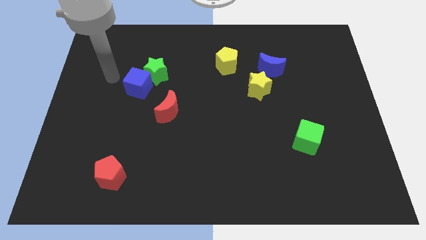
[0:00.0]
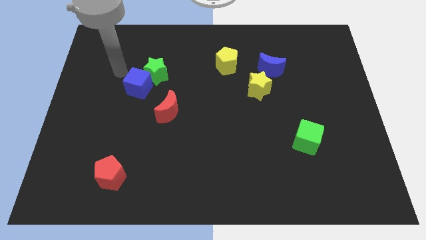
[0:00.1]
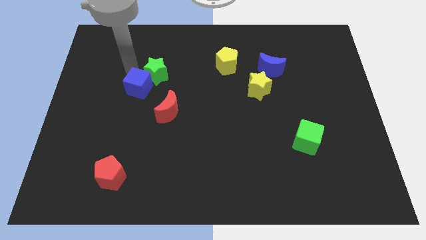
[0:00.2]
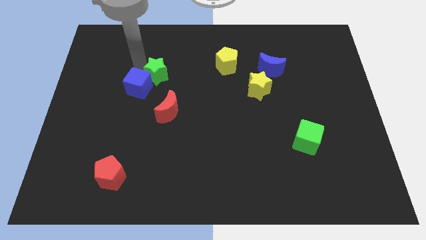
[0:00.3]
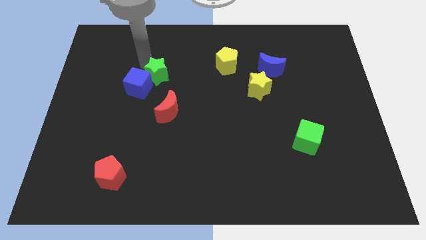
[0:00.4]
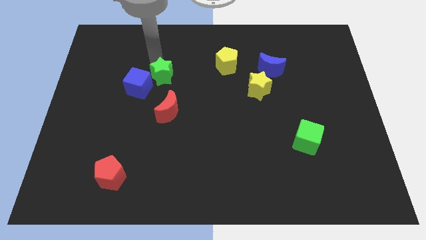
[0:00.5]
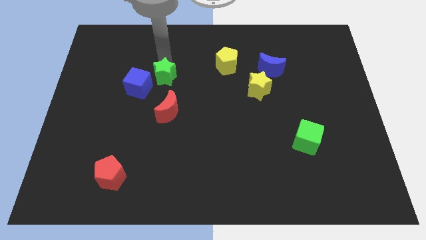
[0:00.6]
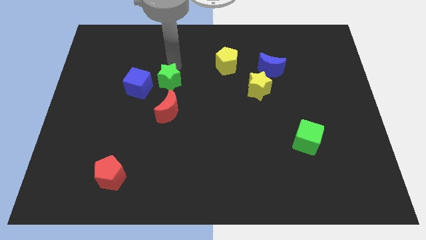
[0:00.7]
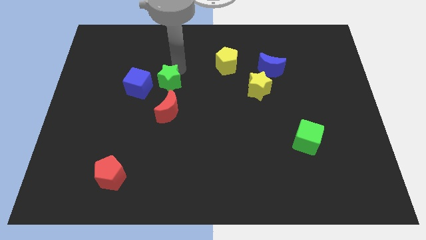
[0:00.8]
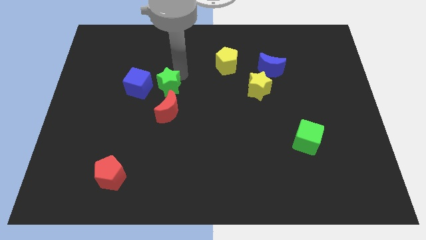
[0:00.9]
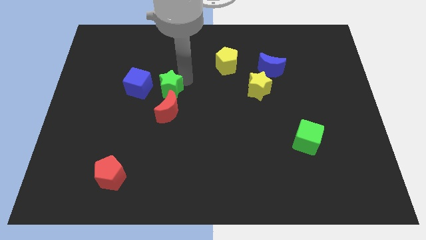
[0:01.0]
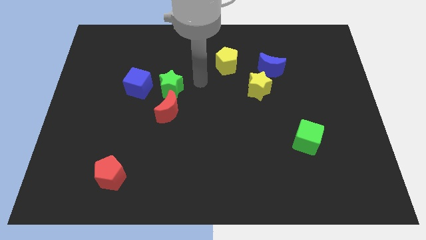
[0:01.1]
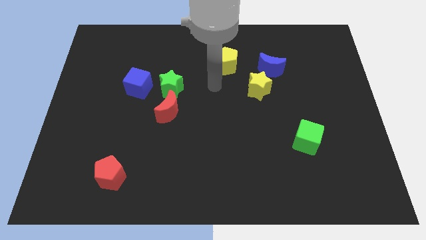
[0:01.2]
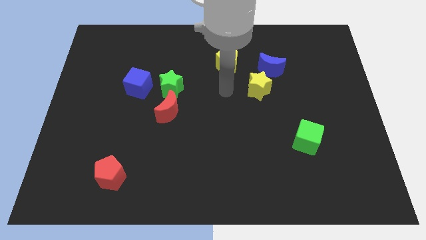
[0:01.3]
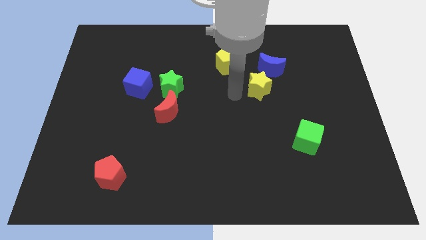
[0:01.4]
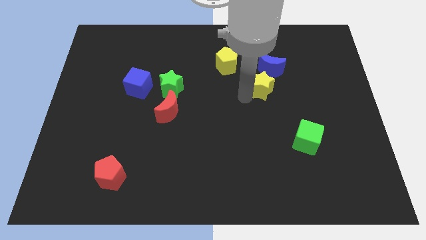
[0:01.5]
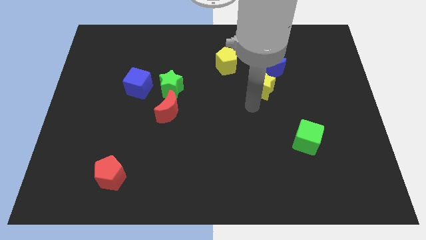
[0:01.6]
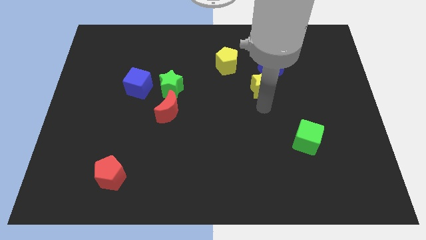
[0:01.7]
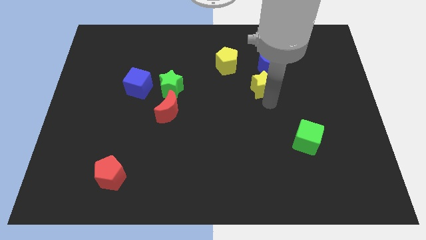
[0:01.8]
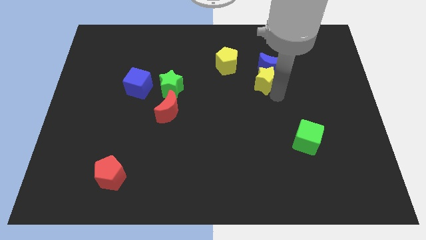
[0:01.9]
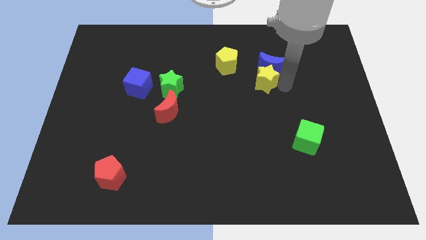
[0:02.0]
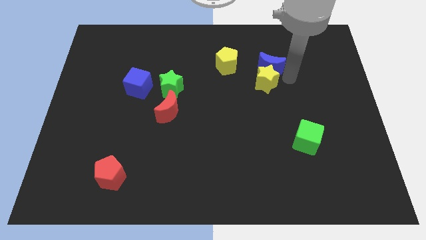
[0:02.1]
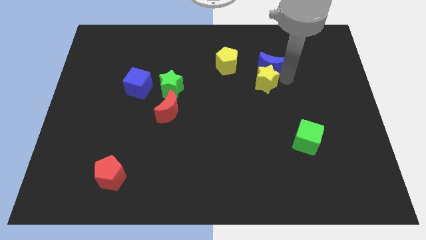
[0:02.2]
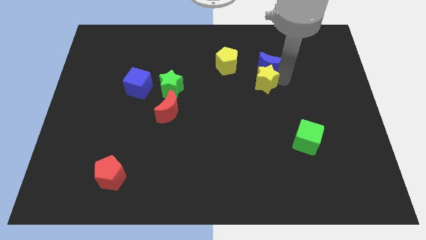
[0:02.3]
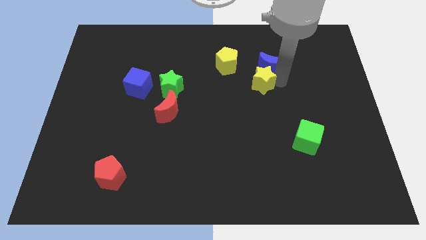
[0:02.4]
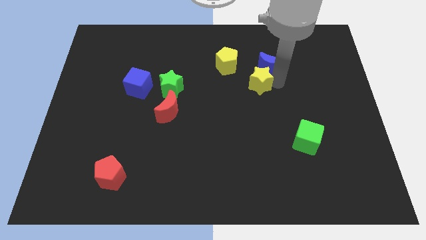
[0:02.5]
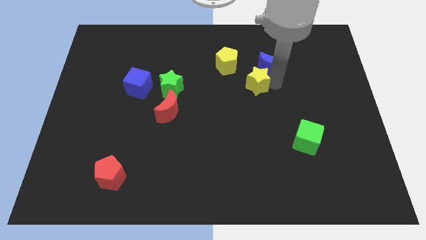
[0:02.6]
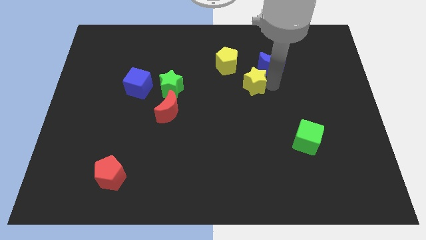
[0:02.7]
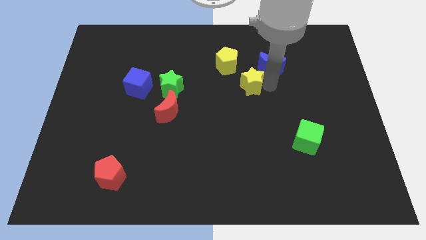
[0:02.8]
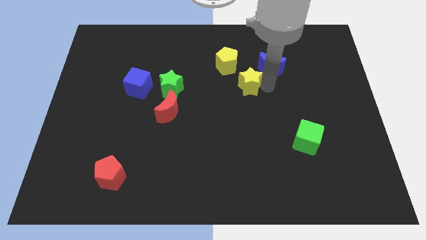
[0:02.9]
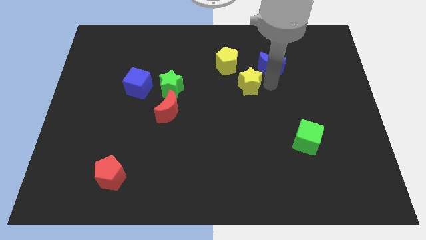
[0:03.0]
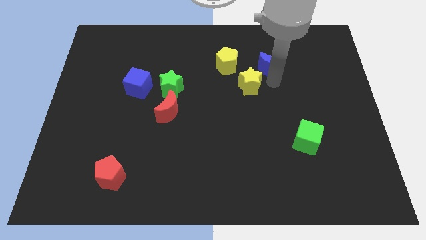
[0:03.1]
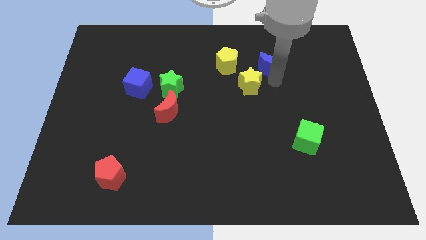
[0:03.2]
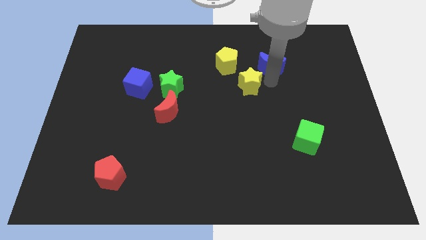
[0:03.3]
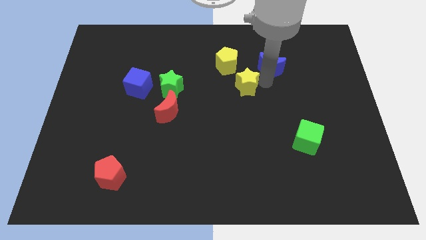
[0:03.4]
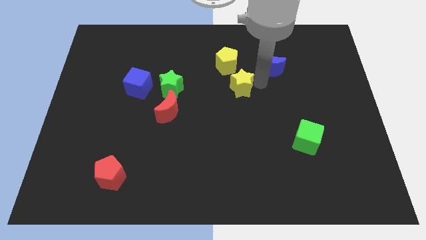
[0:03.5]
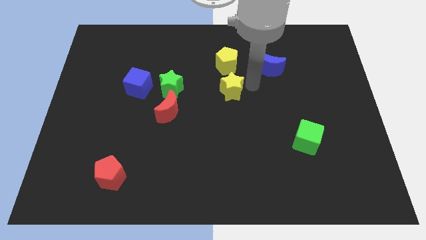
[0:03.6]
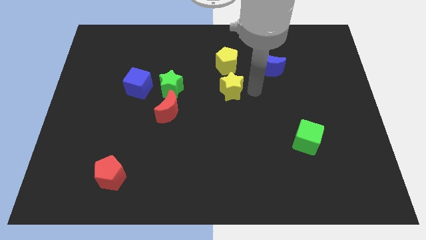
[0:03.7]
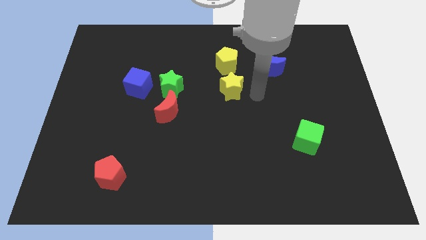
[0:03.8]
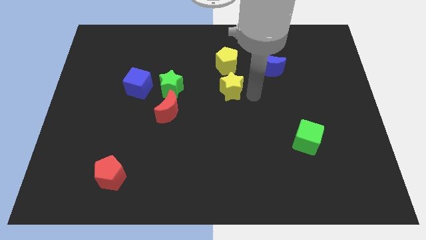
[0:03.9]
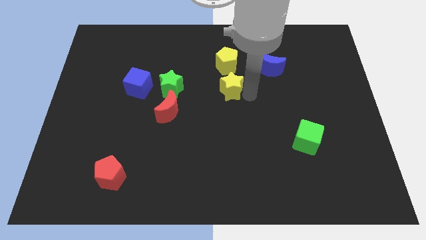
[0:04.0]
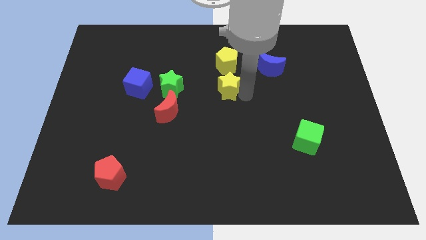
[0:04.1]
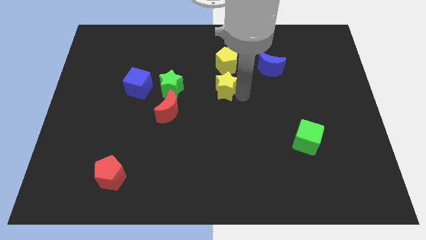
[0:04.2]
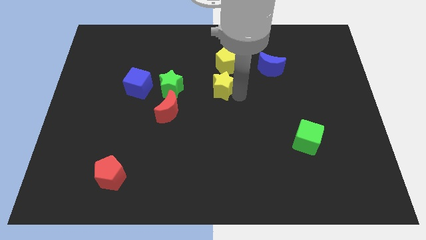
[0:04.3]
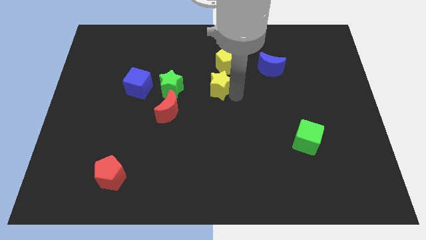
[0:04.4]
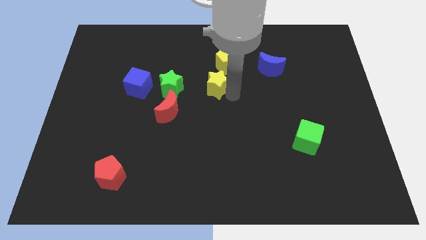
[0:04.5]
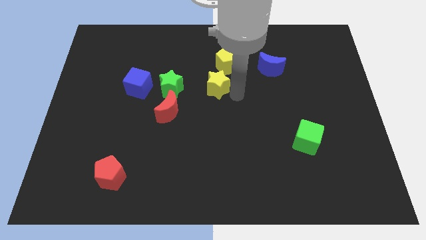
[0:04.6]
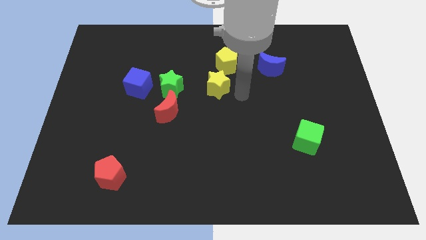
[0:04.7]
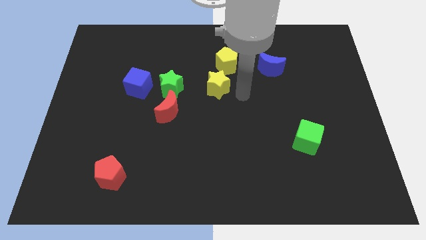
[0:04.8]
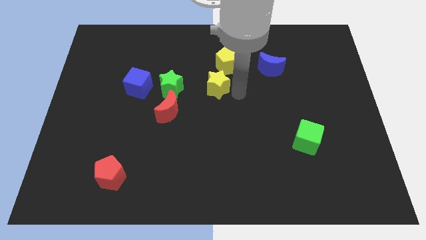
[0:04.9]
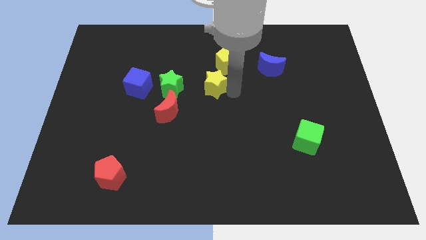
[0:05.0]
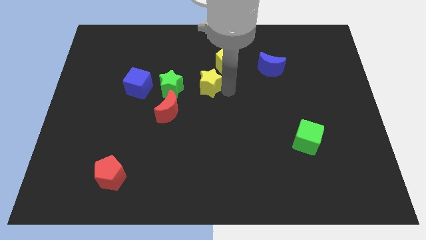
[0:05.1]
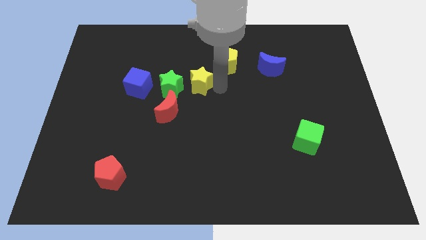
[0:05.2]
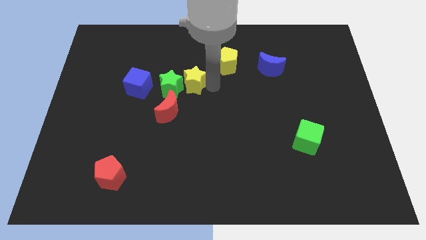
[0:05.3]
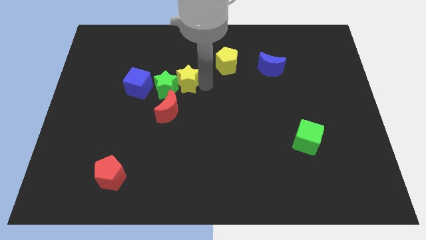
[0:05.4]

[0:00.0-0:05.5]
slide the yellow star to the top side of the red moon

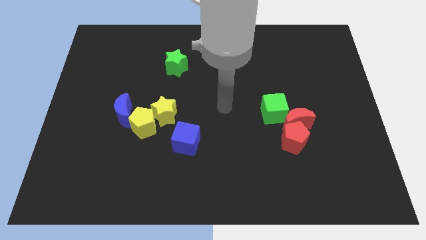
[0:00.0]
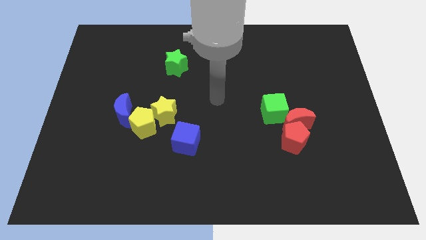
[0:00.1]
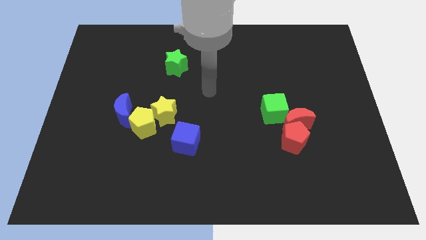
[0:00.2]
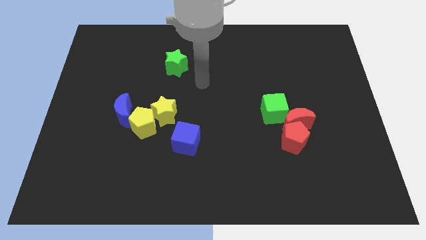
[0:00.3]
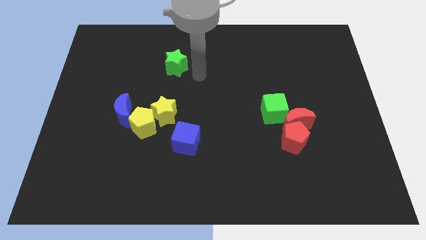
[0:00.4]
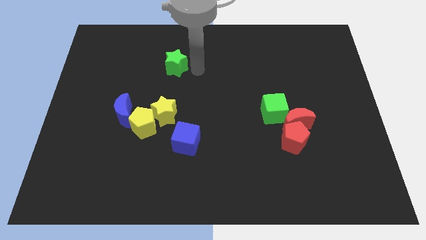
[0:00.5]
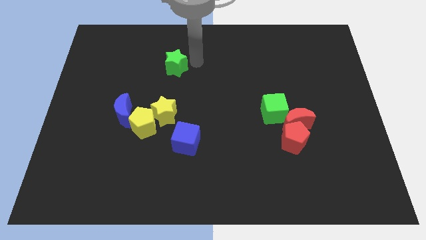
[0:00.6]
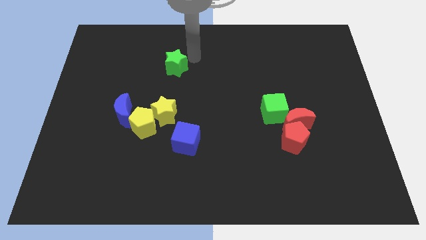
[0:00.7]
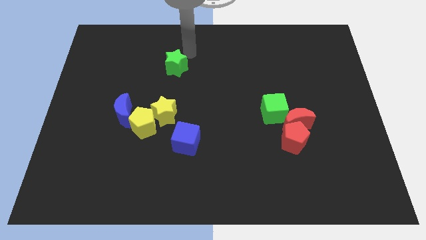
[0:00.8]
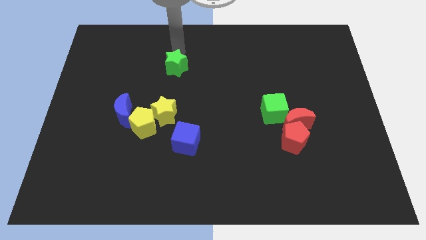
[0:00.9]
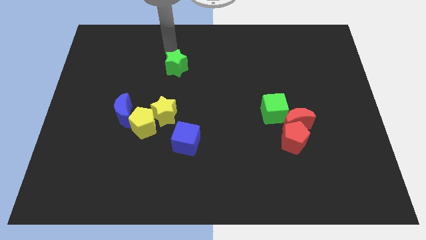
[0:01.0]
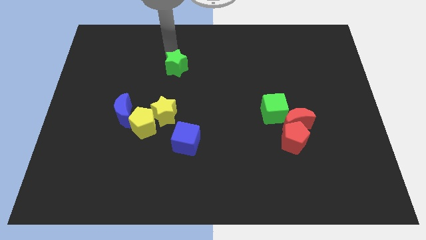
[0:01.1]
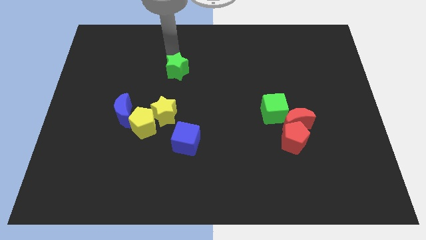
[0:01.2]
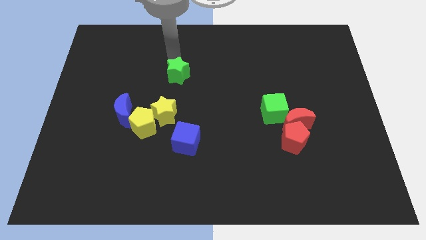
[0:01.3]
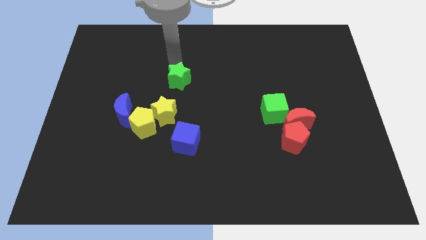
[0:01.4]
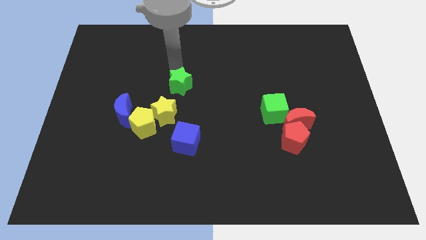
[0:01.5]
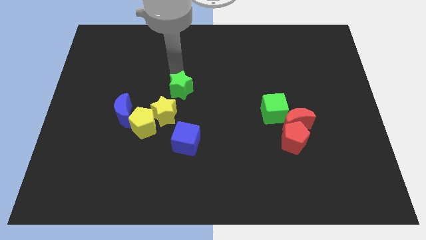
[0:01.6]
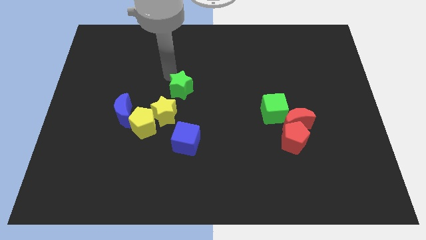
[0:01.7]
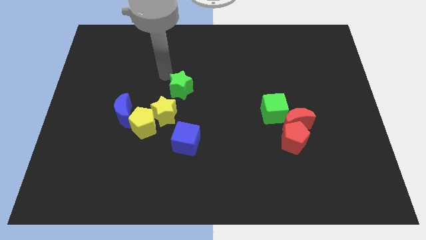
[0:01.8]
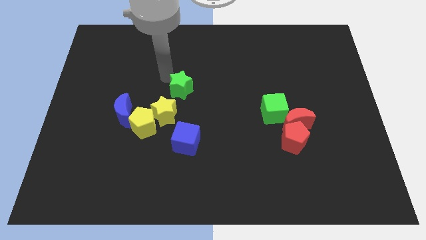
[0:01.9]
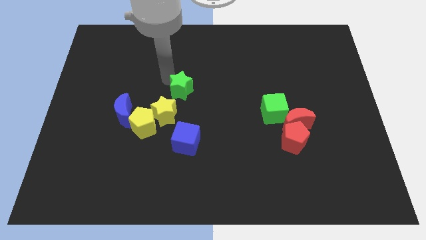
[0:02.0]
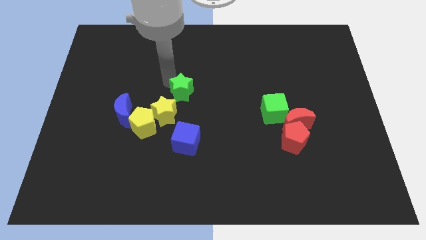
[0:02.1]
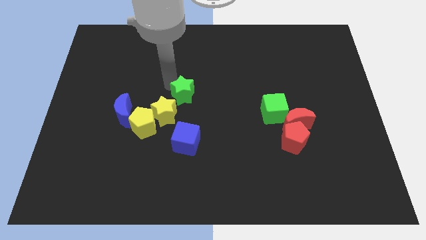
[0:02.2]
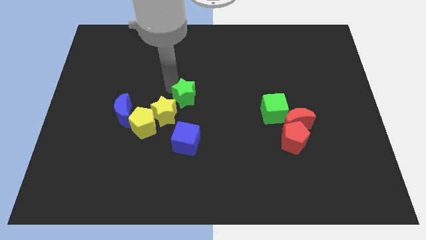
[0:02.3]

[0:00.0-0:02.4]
push the green star to the right of the yellow star
